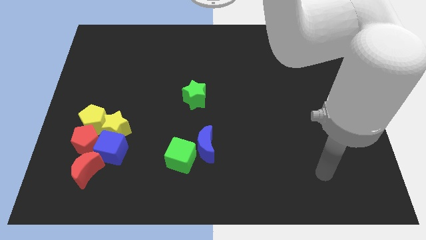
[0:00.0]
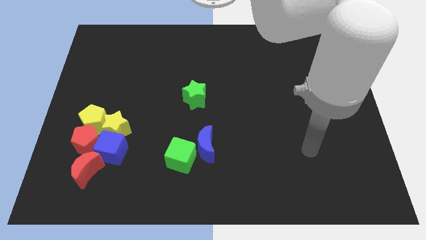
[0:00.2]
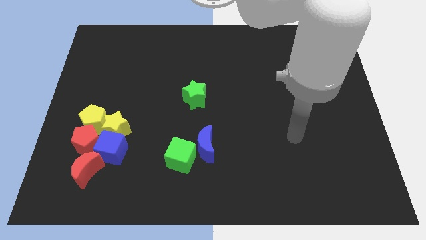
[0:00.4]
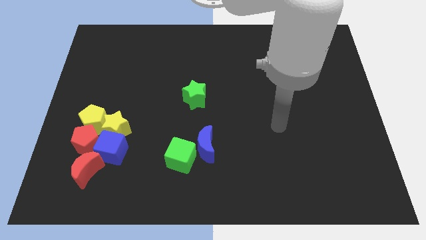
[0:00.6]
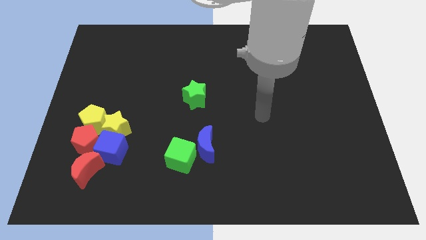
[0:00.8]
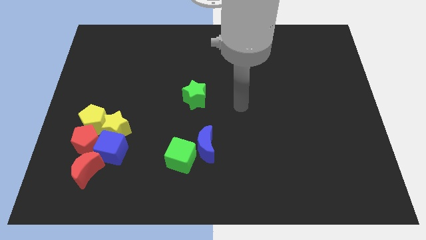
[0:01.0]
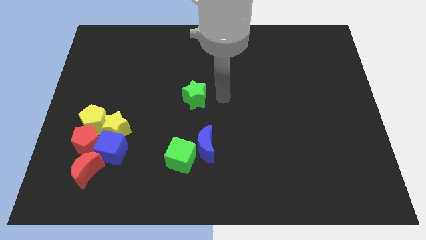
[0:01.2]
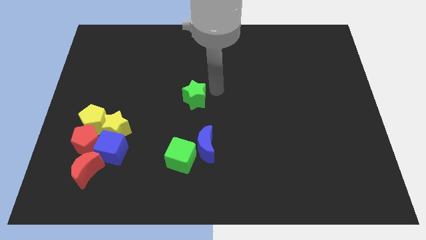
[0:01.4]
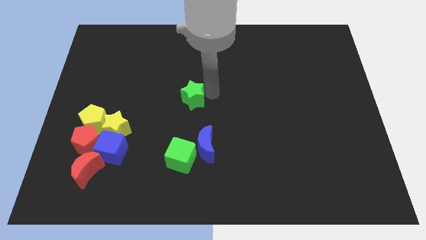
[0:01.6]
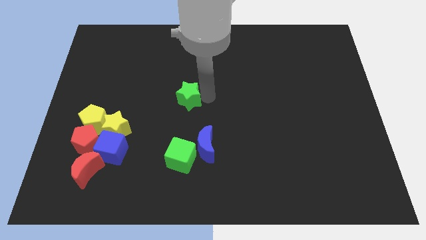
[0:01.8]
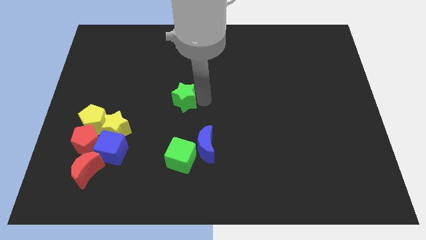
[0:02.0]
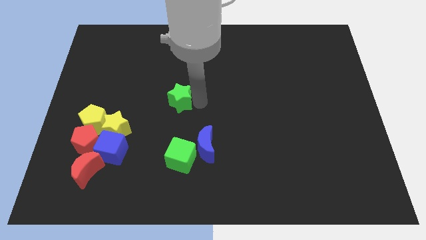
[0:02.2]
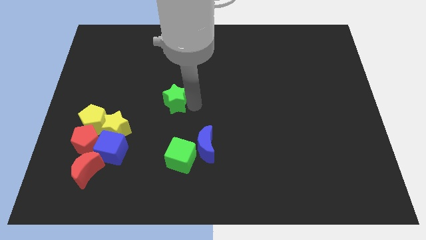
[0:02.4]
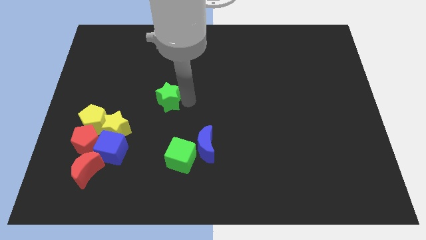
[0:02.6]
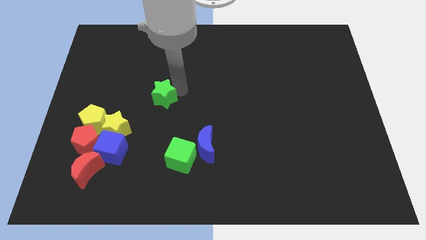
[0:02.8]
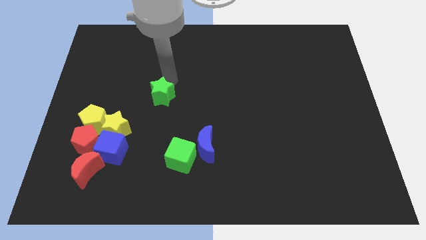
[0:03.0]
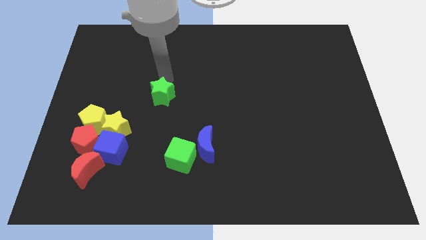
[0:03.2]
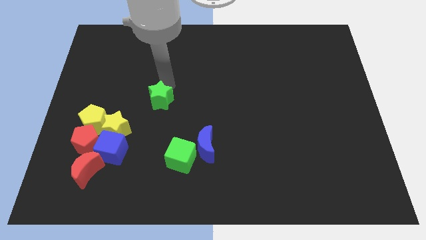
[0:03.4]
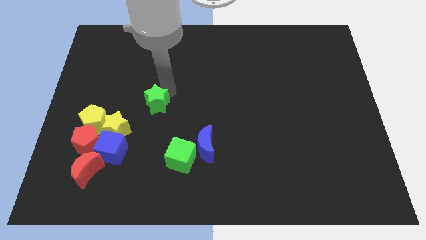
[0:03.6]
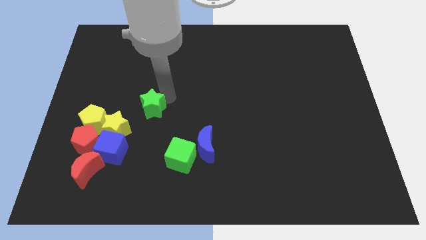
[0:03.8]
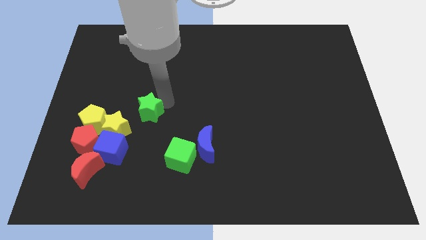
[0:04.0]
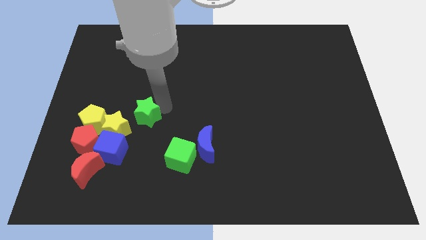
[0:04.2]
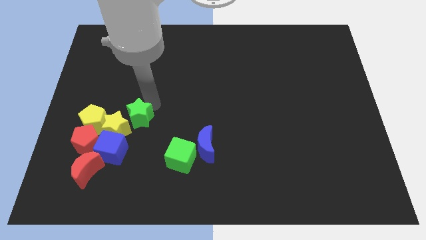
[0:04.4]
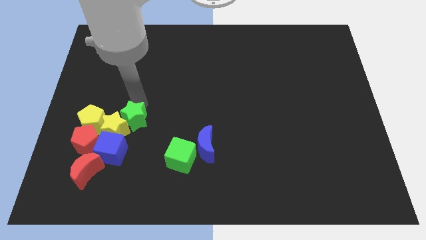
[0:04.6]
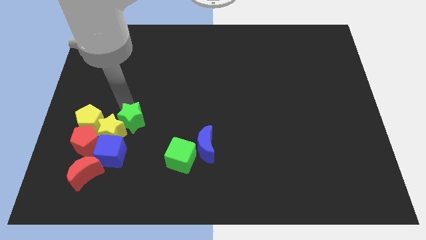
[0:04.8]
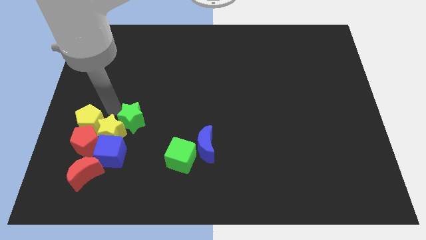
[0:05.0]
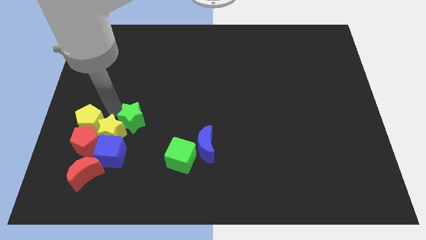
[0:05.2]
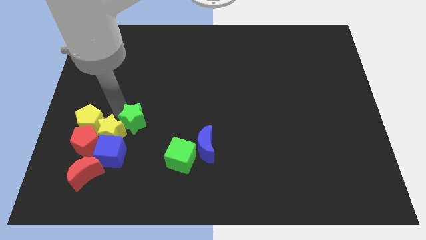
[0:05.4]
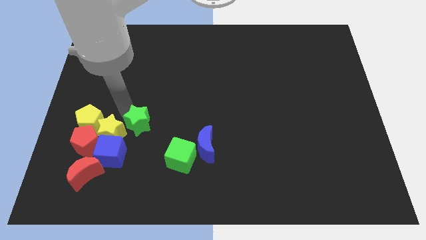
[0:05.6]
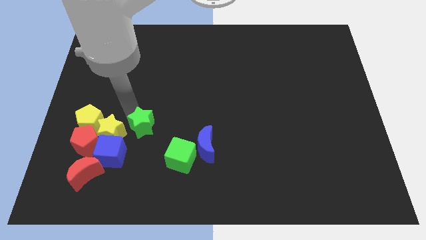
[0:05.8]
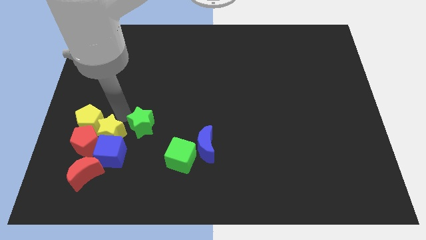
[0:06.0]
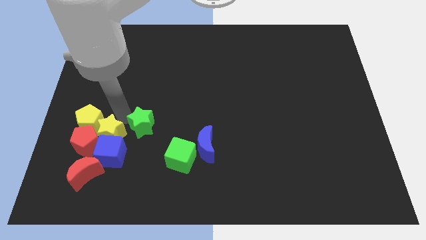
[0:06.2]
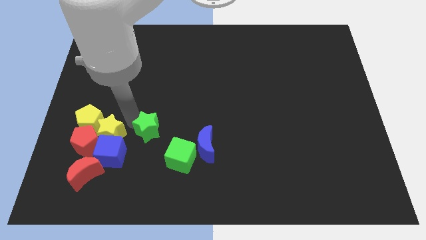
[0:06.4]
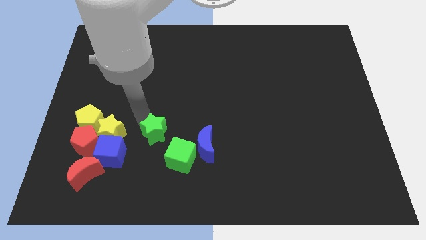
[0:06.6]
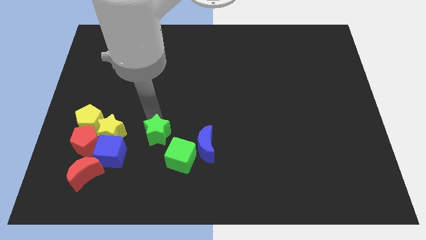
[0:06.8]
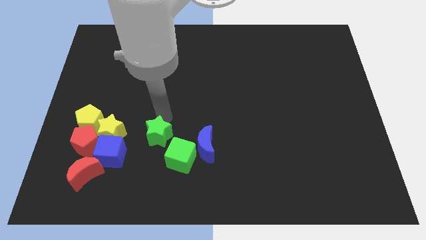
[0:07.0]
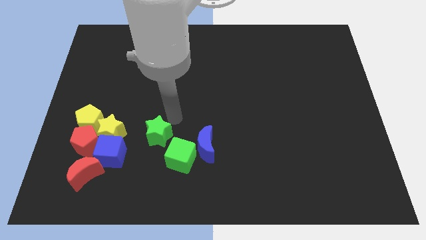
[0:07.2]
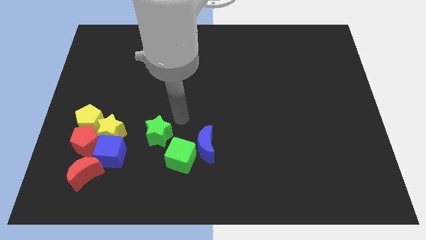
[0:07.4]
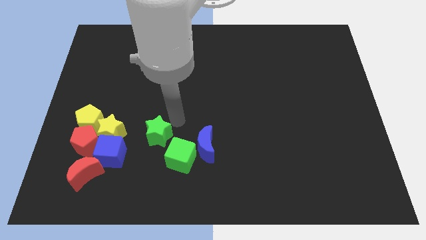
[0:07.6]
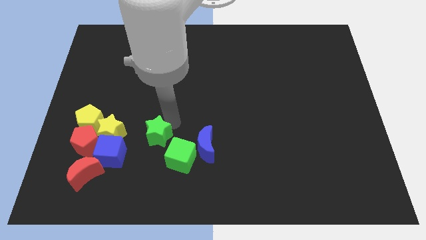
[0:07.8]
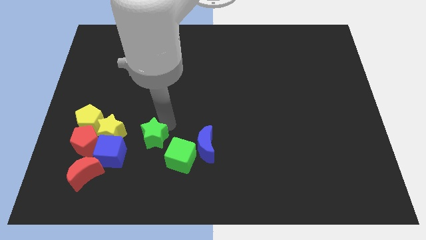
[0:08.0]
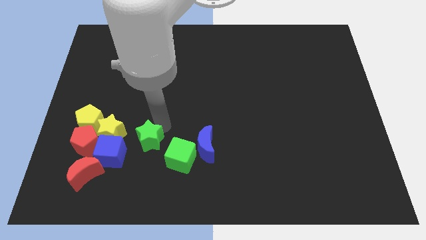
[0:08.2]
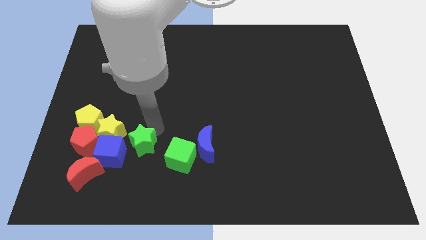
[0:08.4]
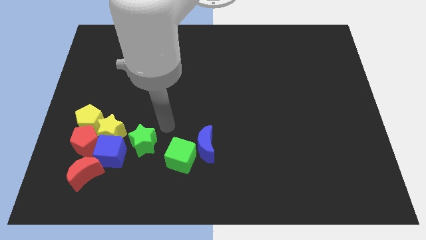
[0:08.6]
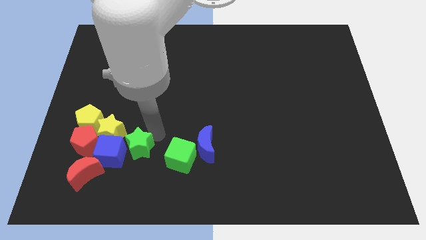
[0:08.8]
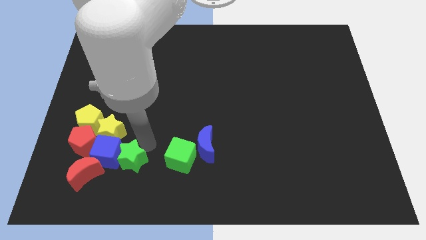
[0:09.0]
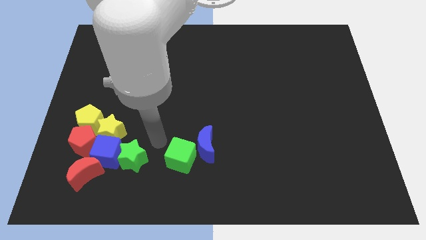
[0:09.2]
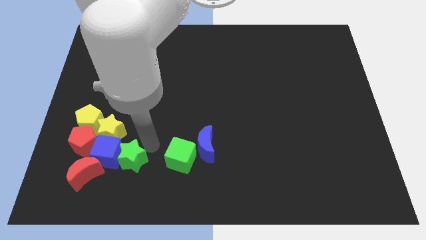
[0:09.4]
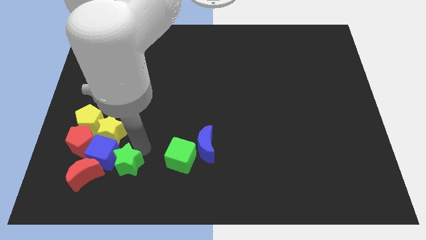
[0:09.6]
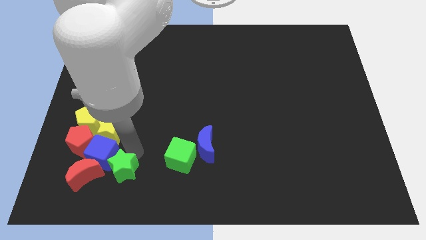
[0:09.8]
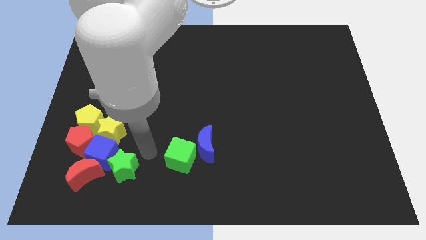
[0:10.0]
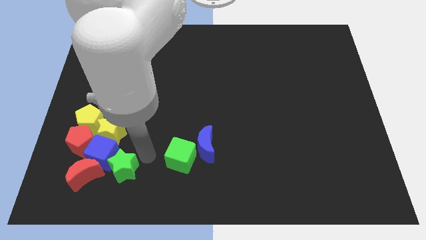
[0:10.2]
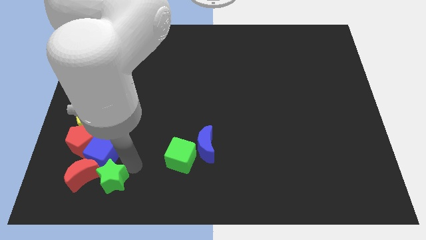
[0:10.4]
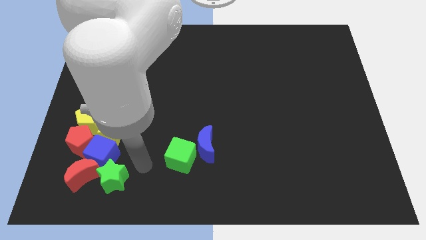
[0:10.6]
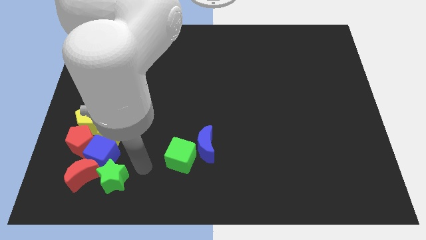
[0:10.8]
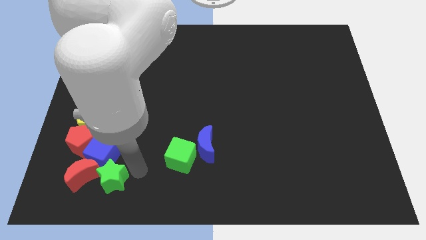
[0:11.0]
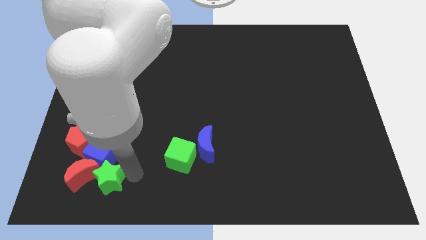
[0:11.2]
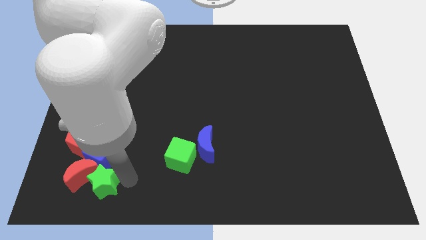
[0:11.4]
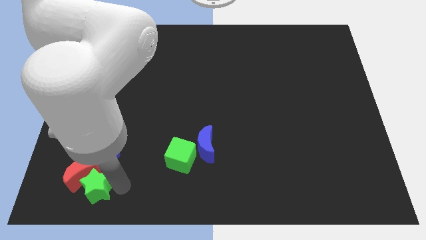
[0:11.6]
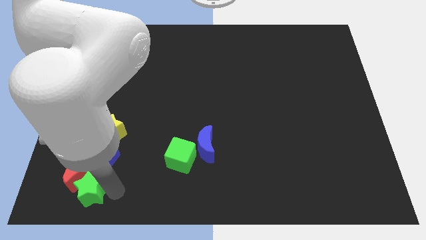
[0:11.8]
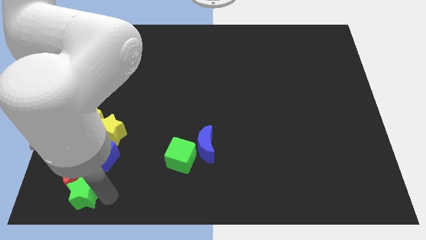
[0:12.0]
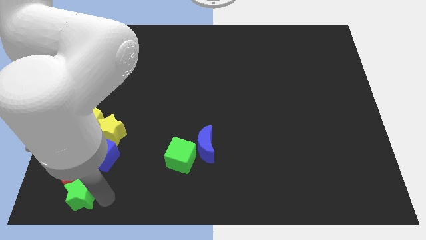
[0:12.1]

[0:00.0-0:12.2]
push the green star to the bottom left of the board
